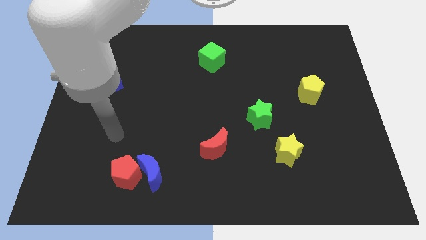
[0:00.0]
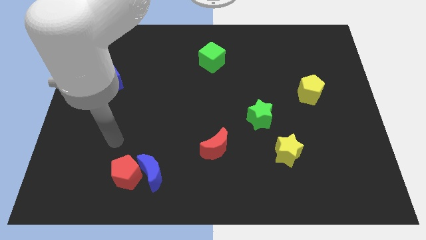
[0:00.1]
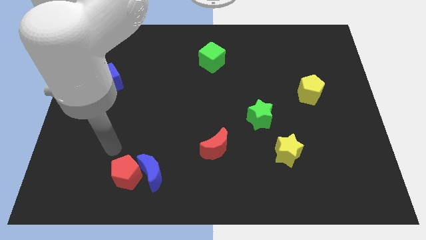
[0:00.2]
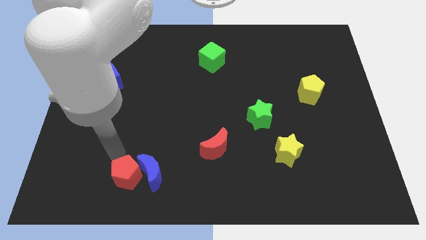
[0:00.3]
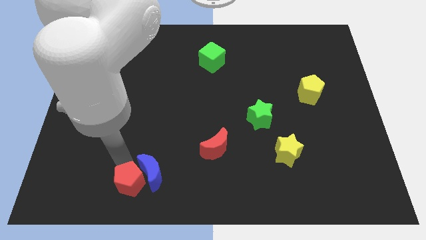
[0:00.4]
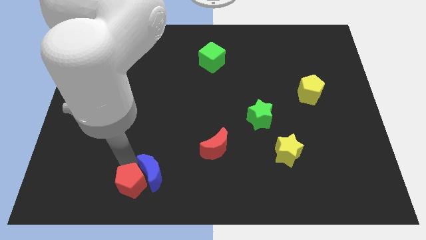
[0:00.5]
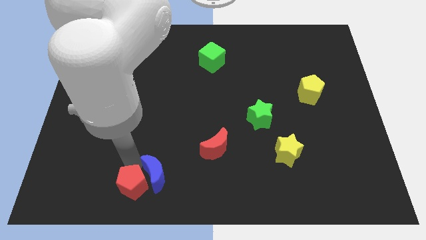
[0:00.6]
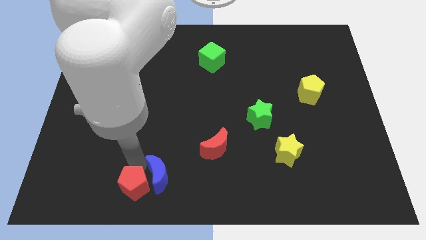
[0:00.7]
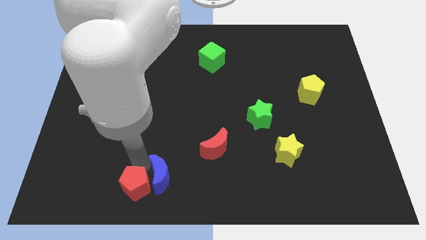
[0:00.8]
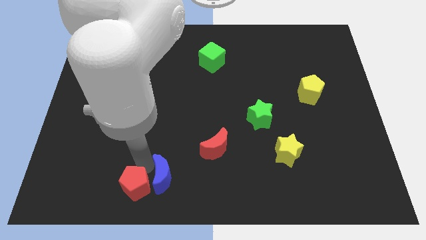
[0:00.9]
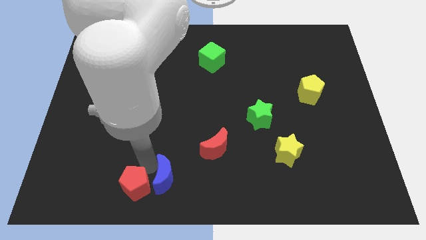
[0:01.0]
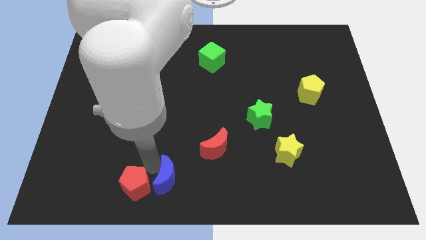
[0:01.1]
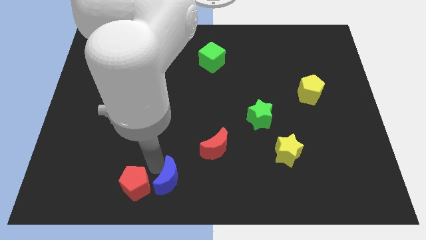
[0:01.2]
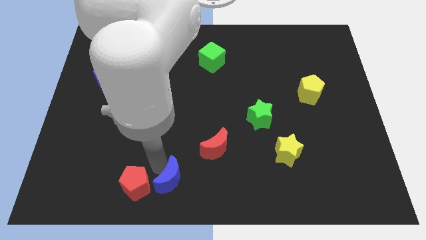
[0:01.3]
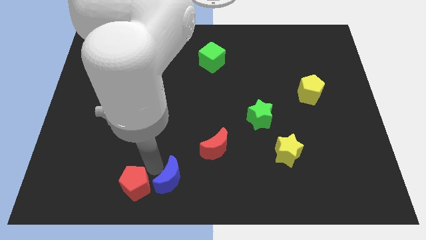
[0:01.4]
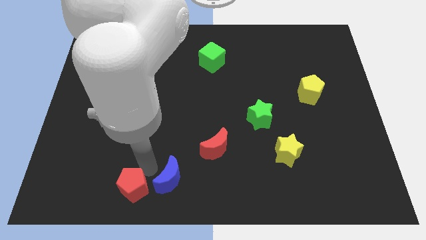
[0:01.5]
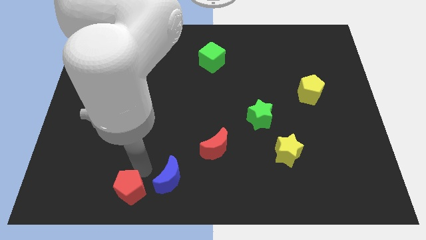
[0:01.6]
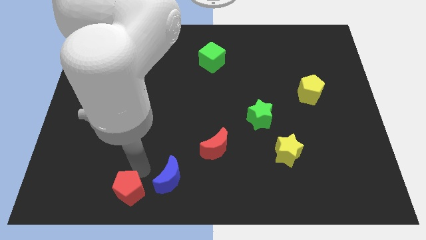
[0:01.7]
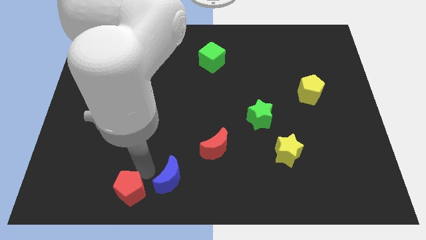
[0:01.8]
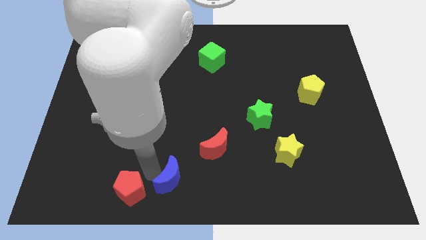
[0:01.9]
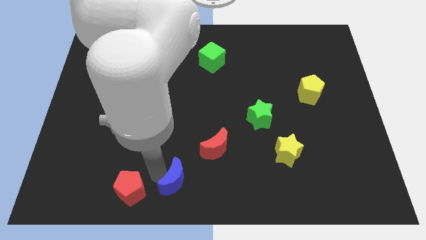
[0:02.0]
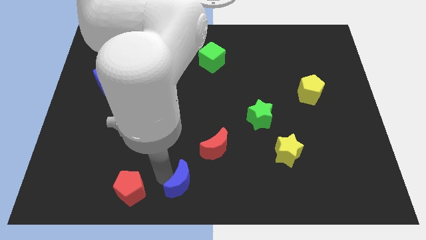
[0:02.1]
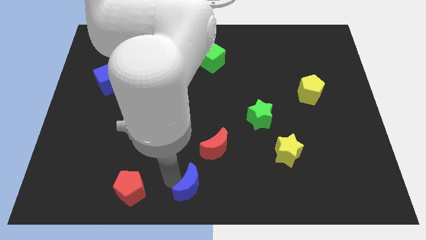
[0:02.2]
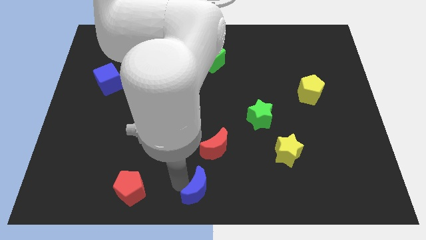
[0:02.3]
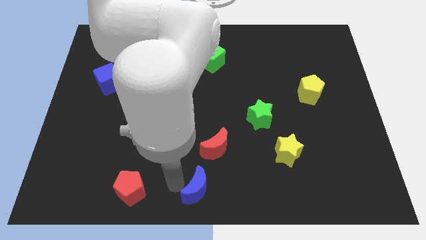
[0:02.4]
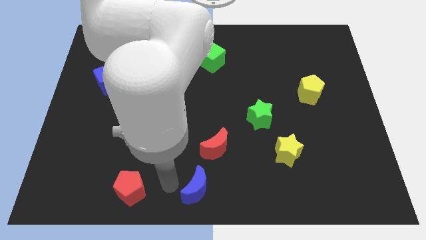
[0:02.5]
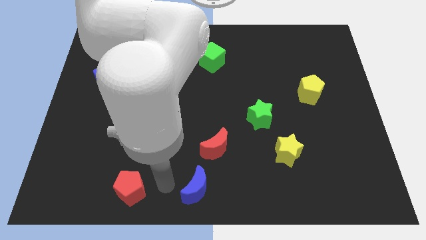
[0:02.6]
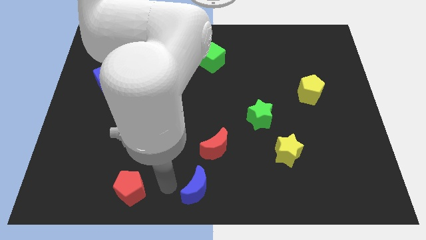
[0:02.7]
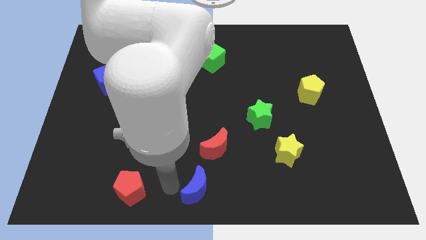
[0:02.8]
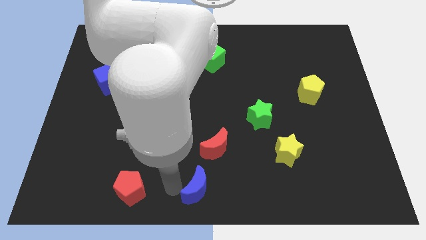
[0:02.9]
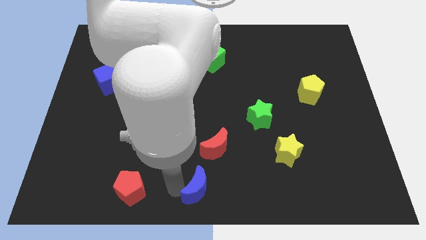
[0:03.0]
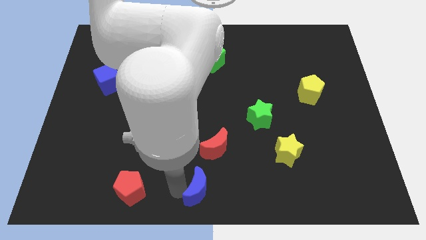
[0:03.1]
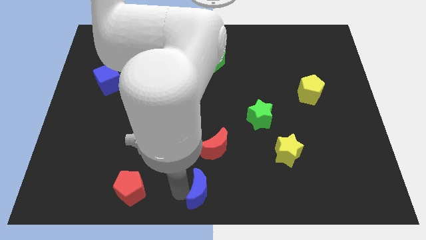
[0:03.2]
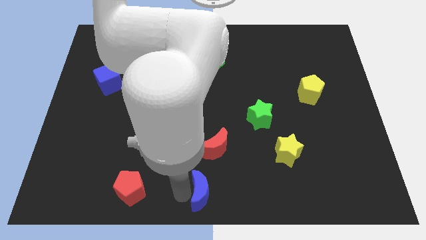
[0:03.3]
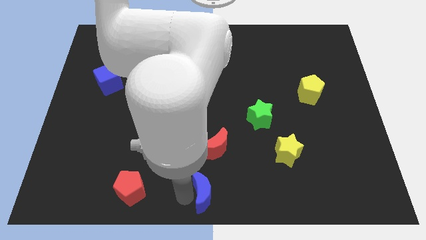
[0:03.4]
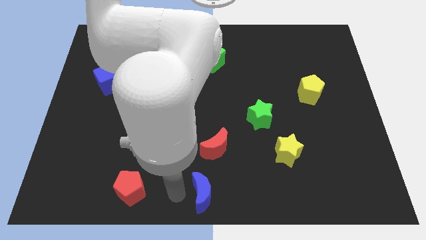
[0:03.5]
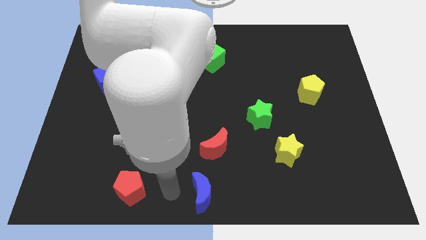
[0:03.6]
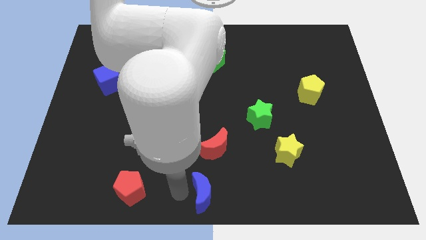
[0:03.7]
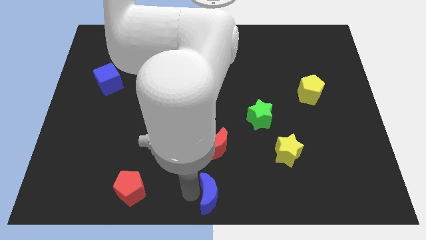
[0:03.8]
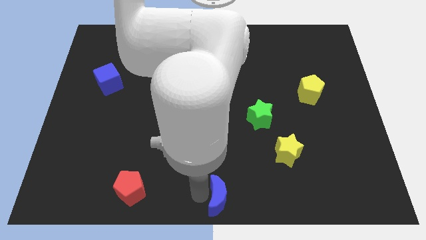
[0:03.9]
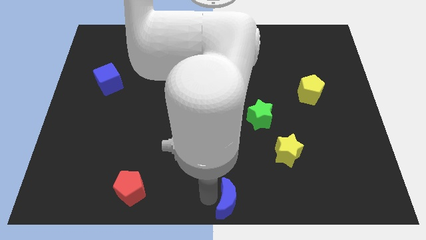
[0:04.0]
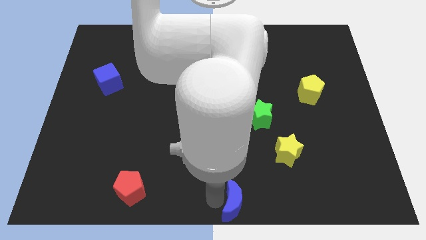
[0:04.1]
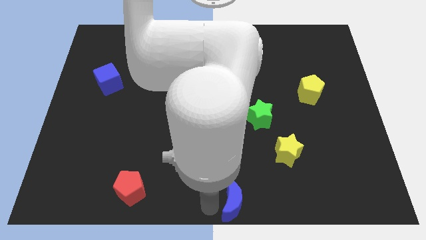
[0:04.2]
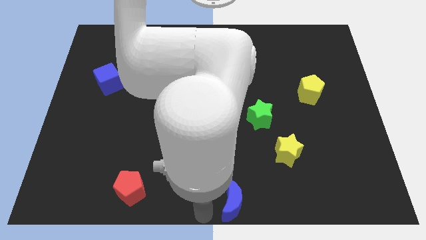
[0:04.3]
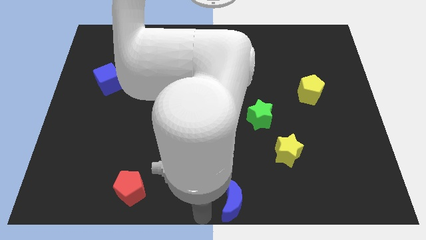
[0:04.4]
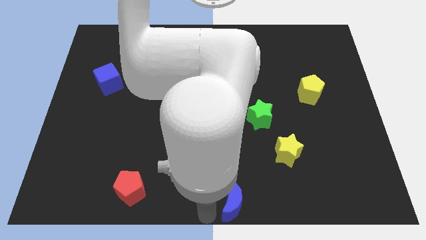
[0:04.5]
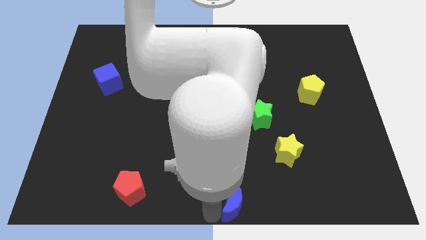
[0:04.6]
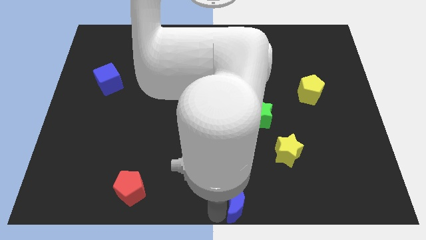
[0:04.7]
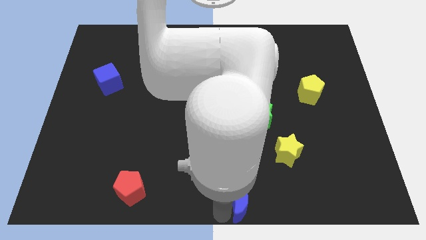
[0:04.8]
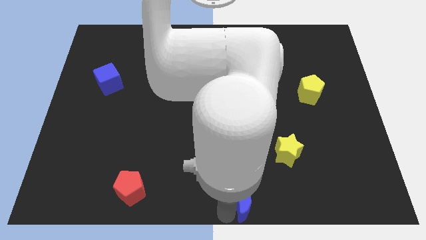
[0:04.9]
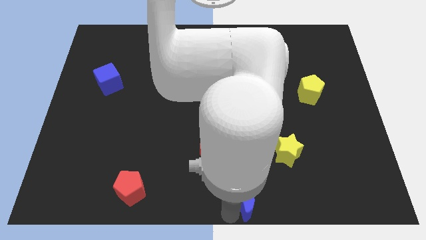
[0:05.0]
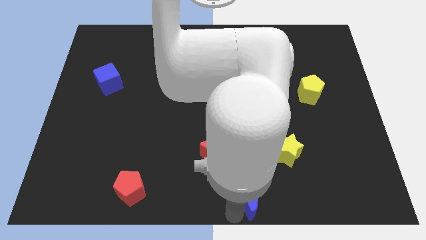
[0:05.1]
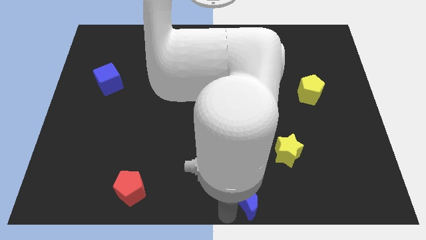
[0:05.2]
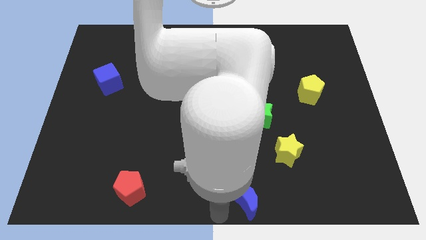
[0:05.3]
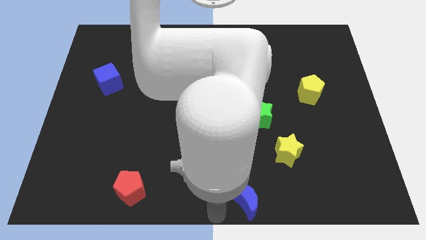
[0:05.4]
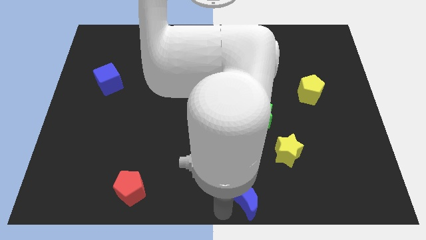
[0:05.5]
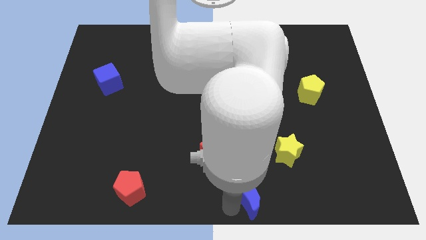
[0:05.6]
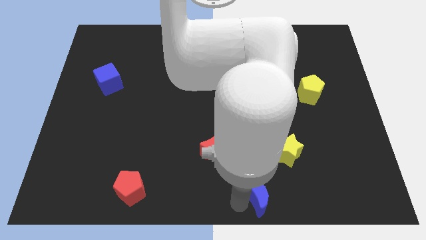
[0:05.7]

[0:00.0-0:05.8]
slide the blue moon right

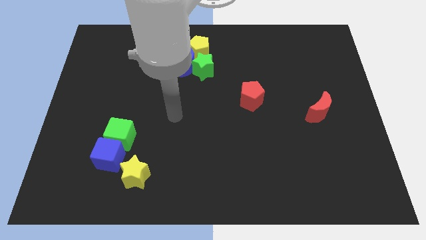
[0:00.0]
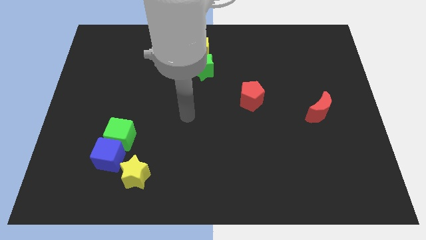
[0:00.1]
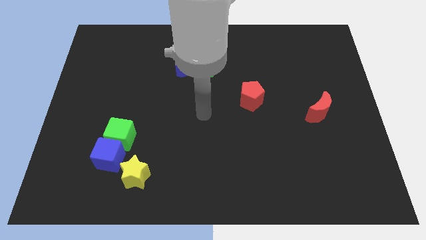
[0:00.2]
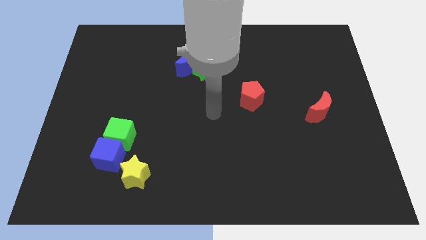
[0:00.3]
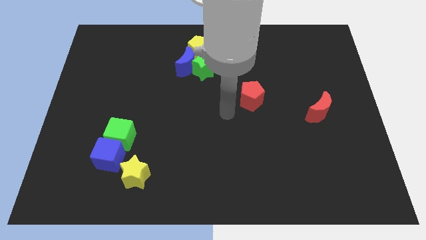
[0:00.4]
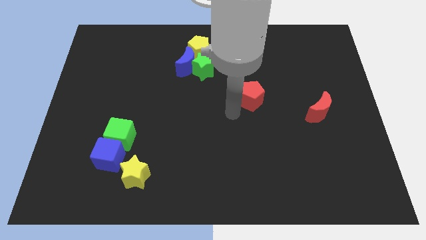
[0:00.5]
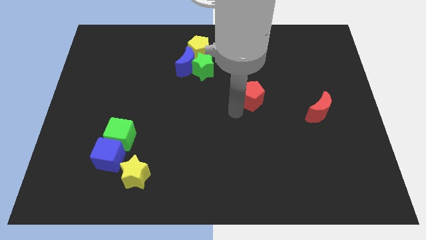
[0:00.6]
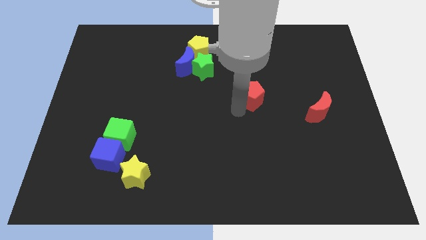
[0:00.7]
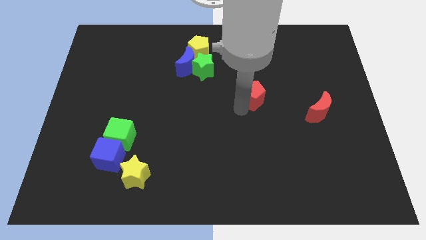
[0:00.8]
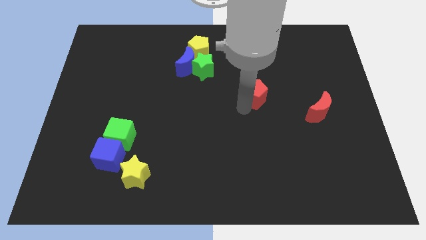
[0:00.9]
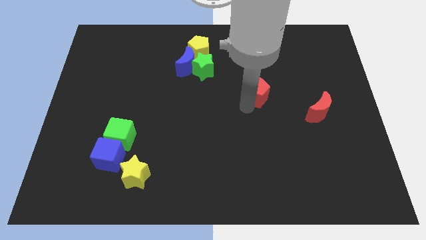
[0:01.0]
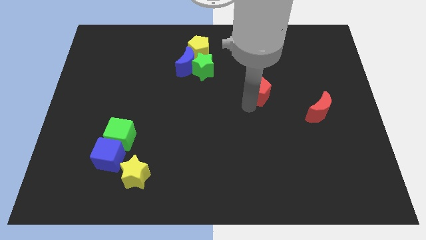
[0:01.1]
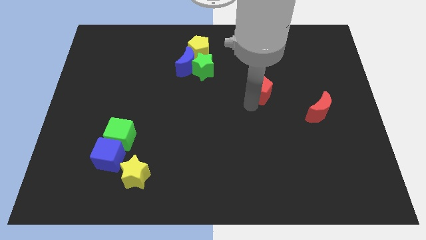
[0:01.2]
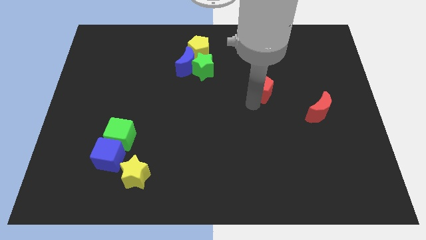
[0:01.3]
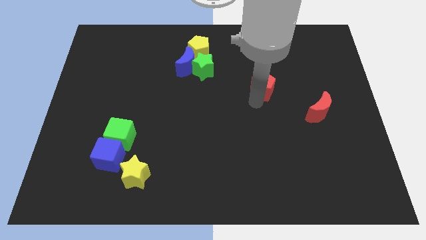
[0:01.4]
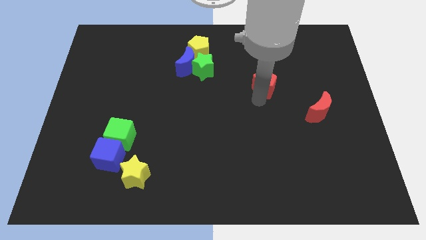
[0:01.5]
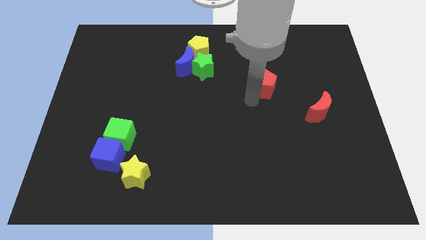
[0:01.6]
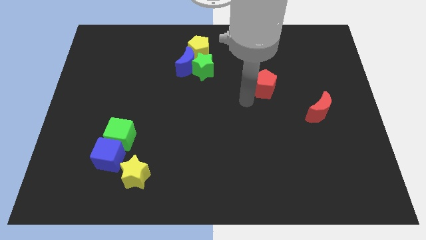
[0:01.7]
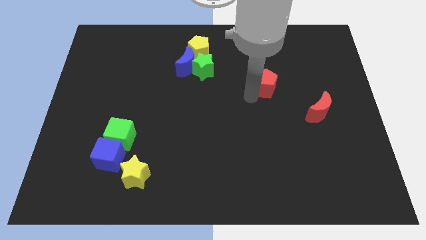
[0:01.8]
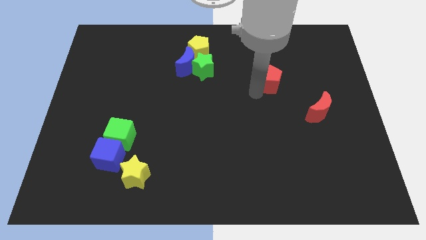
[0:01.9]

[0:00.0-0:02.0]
slide the red pentagon somewhat up and right diagonally
